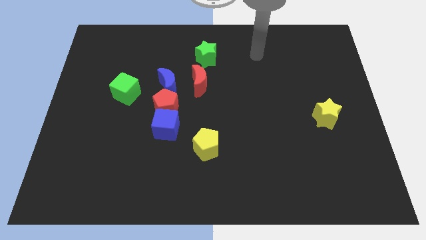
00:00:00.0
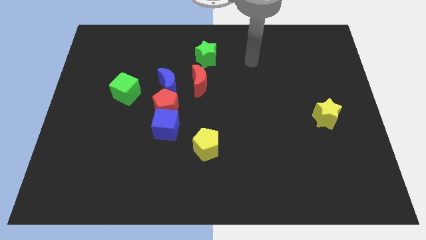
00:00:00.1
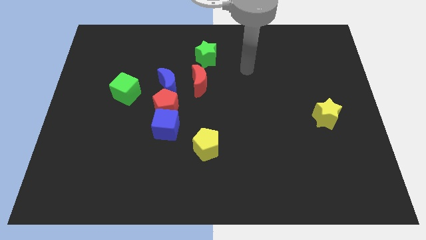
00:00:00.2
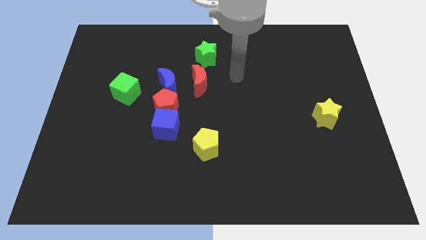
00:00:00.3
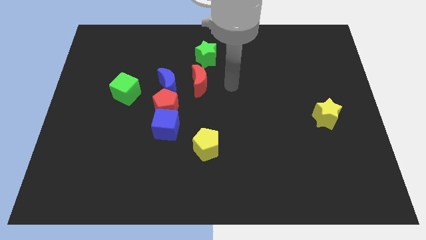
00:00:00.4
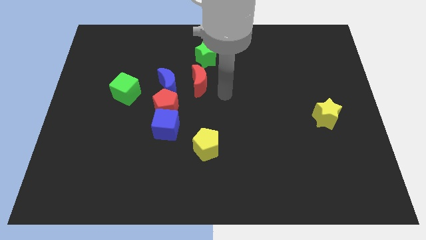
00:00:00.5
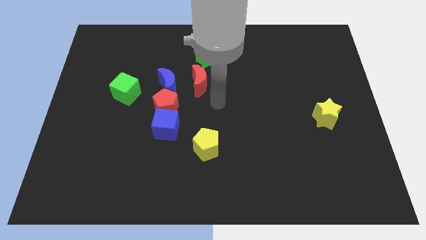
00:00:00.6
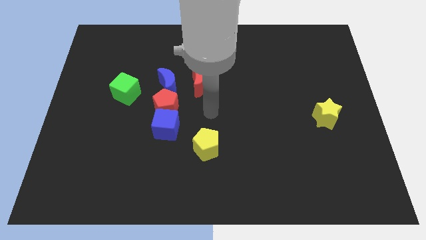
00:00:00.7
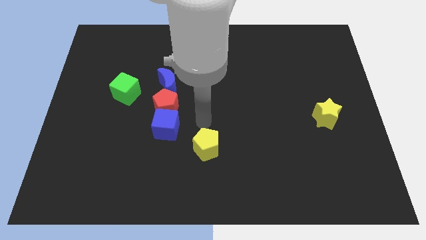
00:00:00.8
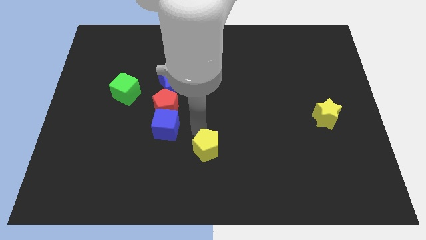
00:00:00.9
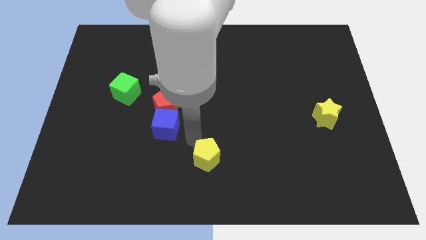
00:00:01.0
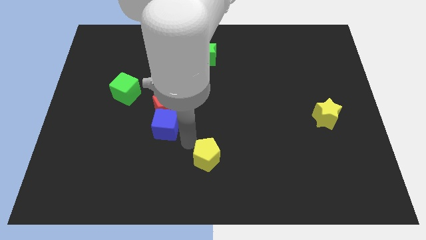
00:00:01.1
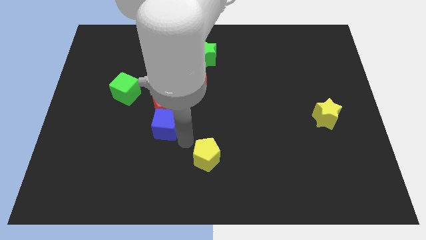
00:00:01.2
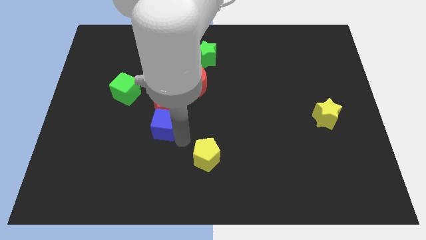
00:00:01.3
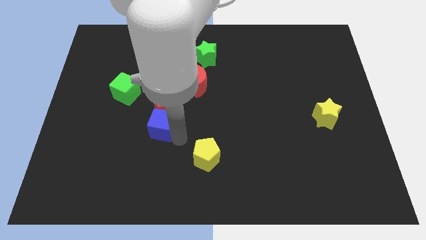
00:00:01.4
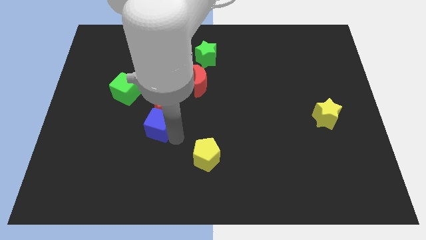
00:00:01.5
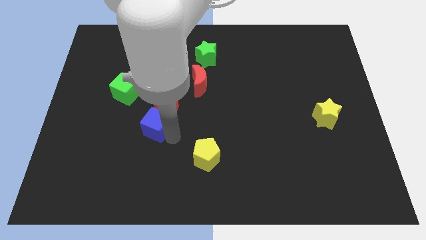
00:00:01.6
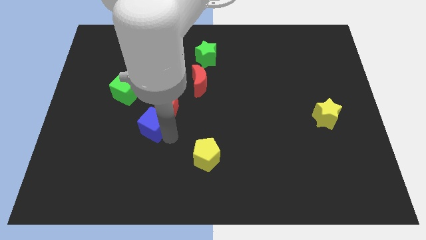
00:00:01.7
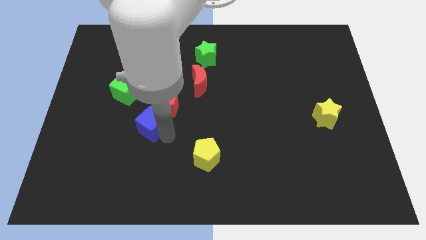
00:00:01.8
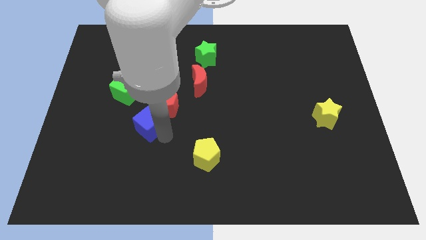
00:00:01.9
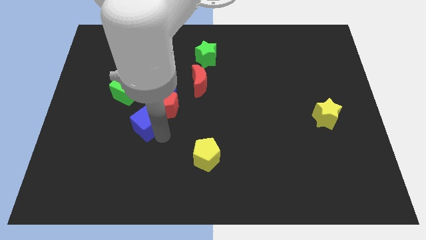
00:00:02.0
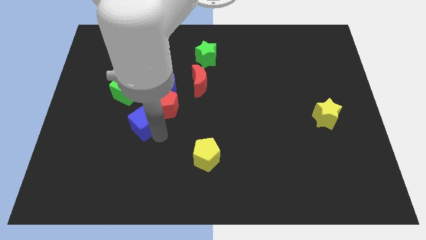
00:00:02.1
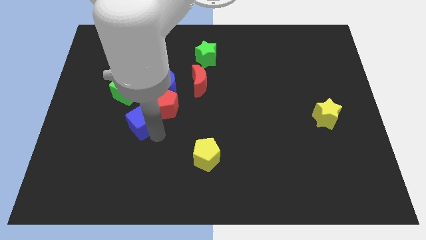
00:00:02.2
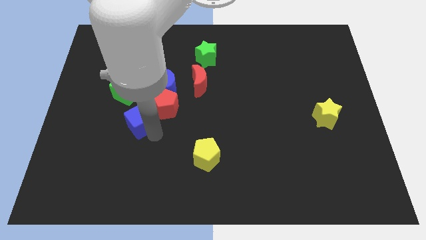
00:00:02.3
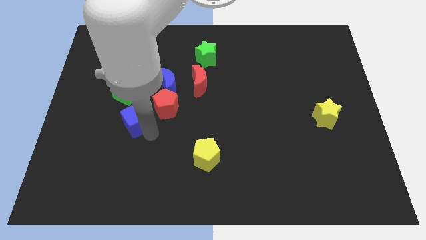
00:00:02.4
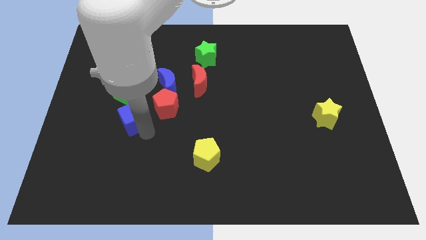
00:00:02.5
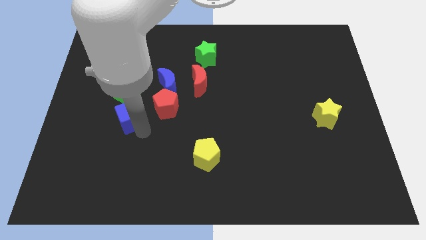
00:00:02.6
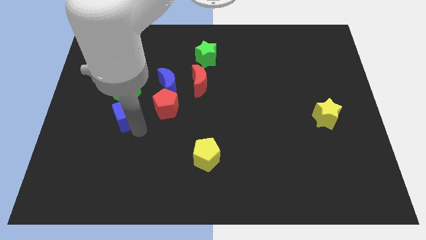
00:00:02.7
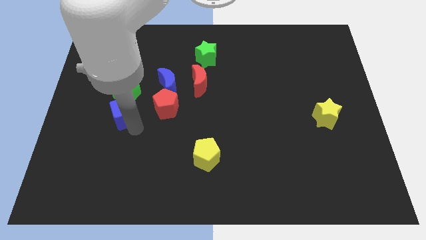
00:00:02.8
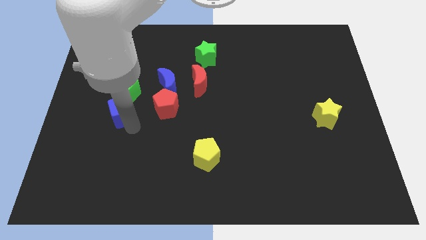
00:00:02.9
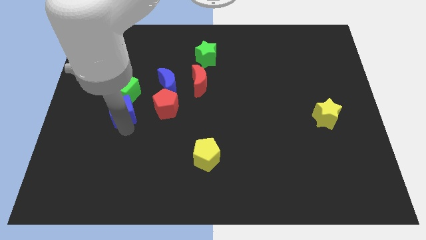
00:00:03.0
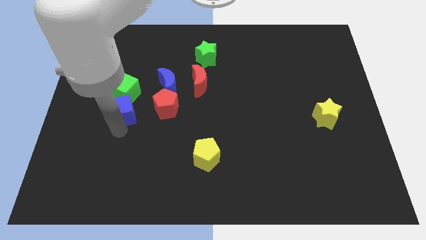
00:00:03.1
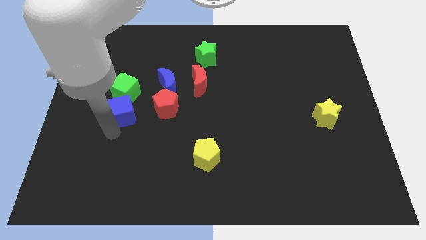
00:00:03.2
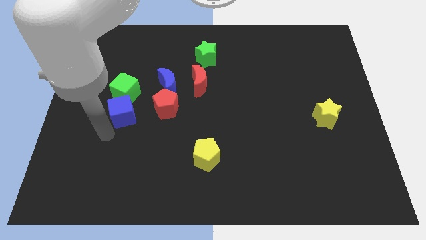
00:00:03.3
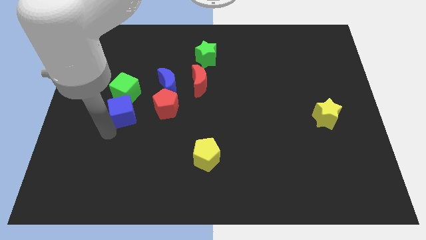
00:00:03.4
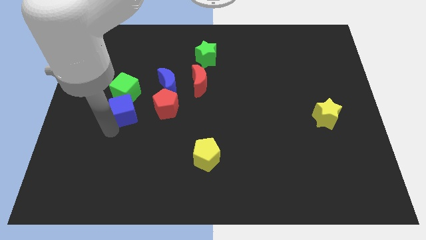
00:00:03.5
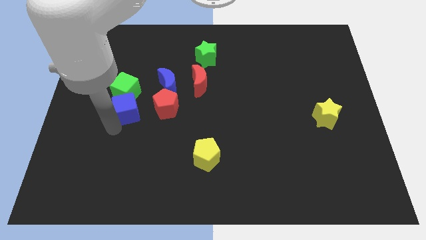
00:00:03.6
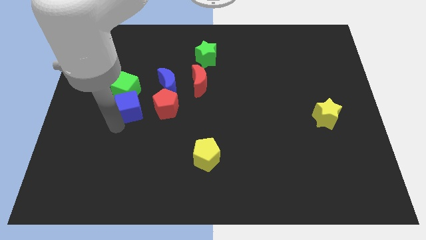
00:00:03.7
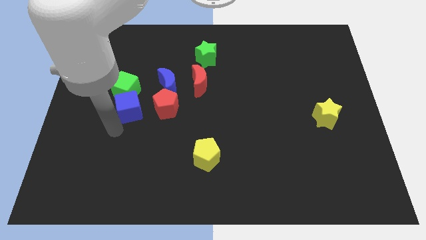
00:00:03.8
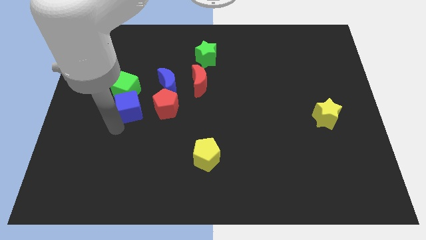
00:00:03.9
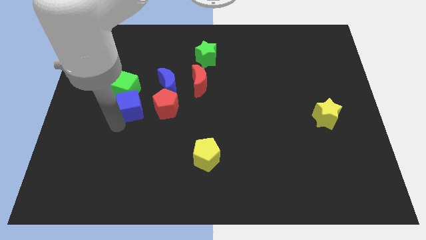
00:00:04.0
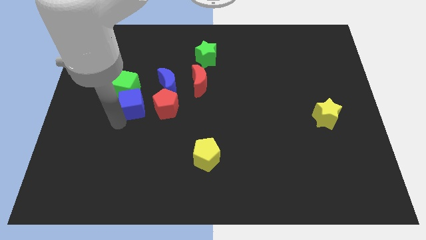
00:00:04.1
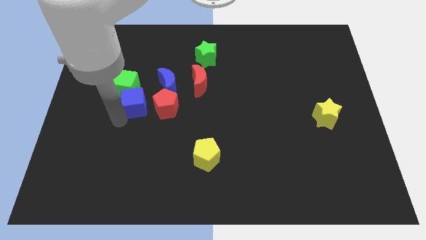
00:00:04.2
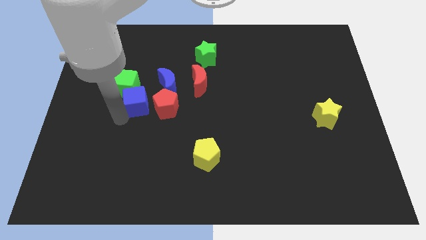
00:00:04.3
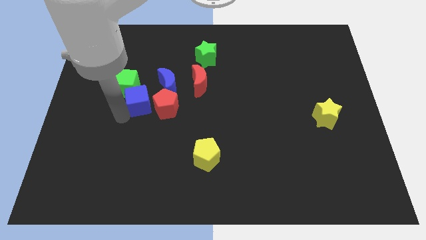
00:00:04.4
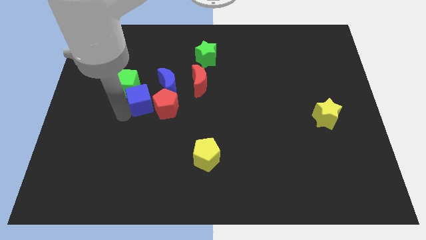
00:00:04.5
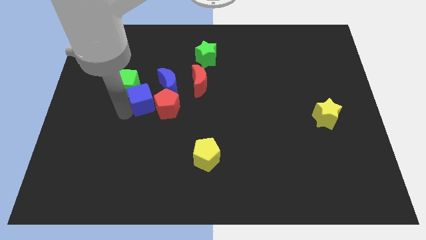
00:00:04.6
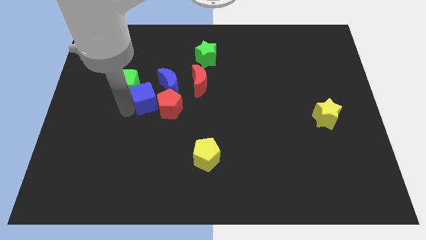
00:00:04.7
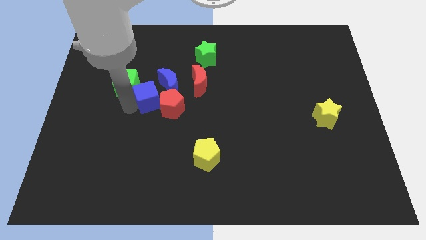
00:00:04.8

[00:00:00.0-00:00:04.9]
slide the blue cube a little bit up

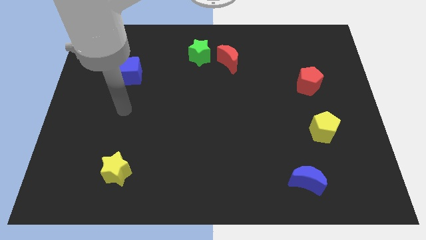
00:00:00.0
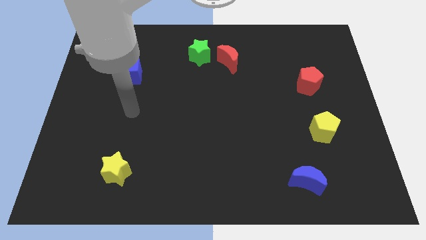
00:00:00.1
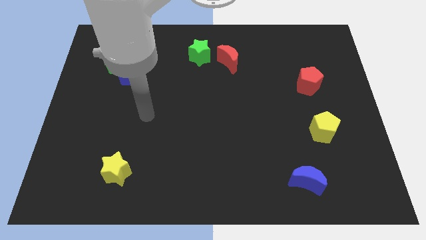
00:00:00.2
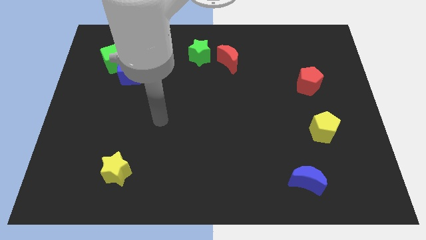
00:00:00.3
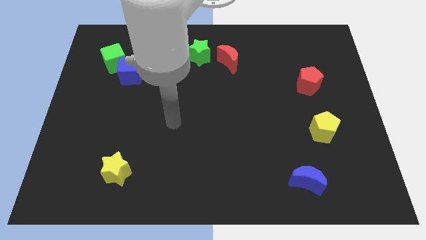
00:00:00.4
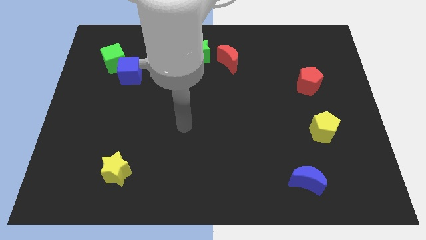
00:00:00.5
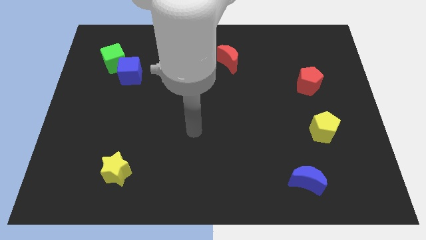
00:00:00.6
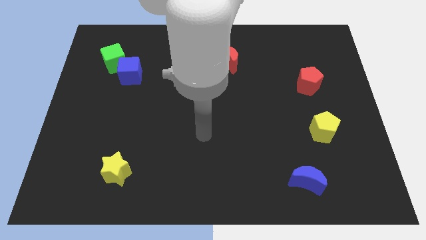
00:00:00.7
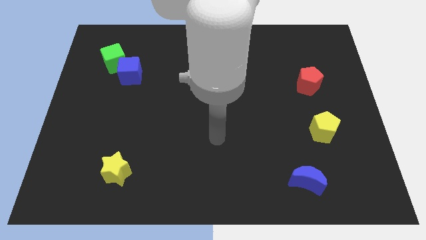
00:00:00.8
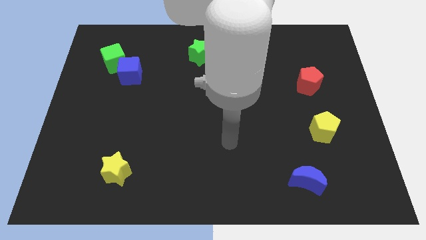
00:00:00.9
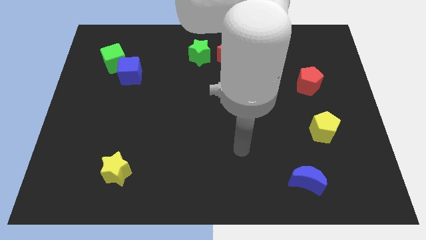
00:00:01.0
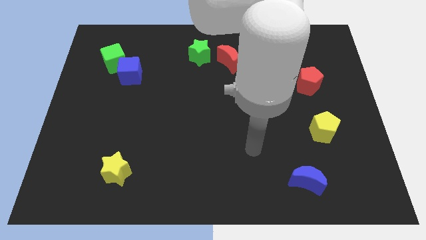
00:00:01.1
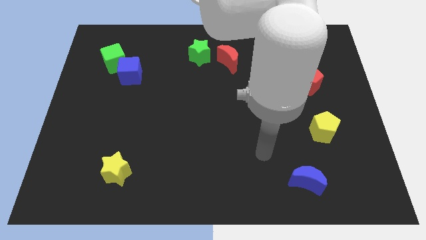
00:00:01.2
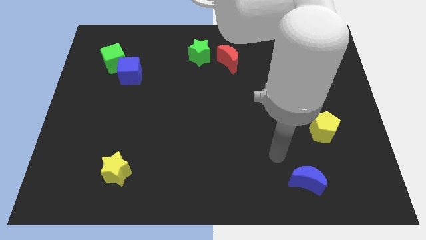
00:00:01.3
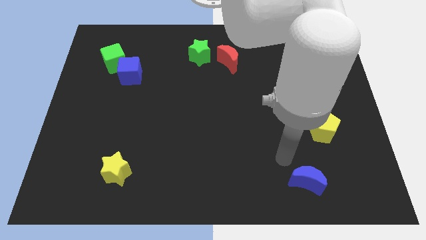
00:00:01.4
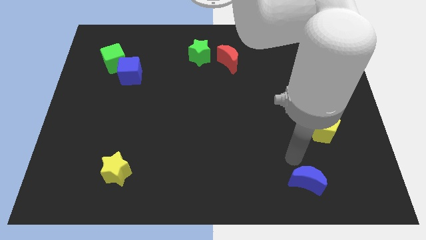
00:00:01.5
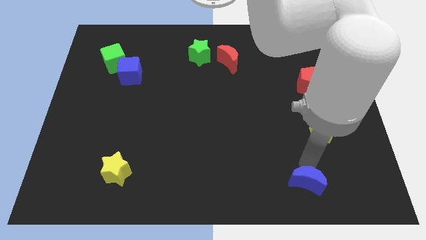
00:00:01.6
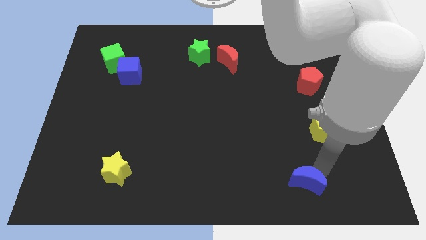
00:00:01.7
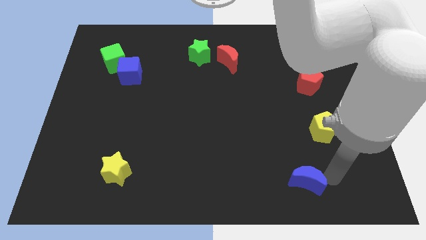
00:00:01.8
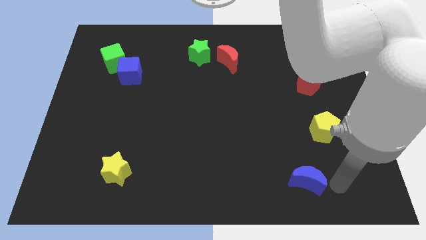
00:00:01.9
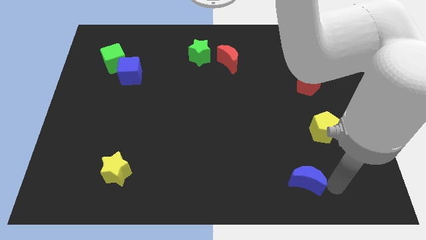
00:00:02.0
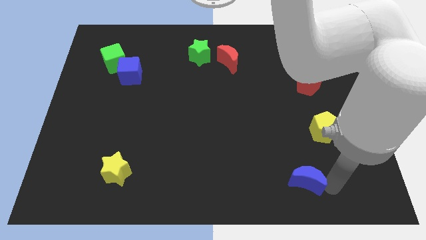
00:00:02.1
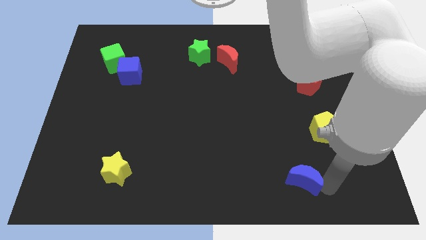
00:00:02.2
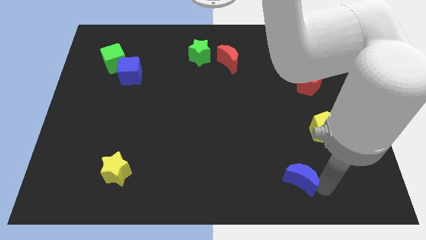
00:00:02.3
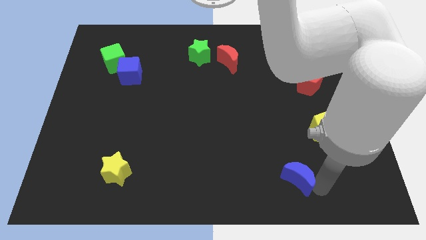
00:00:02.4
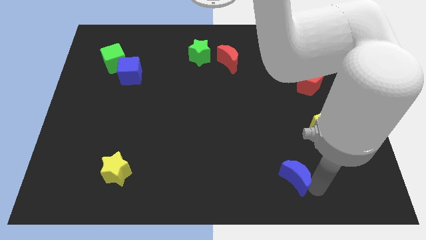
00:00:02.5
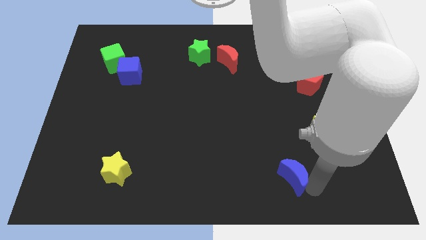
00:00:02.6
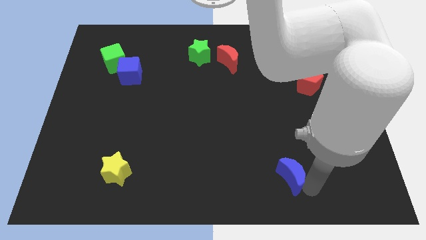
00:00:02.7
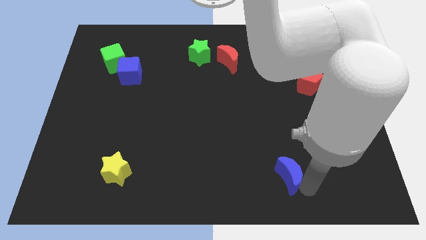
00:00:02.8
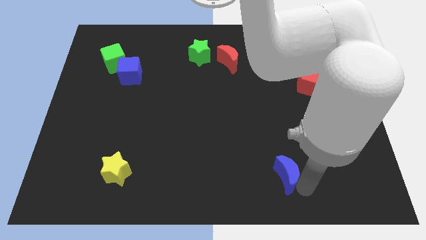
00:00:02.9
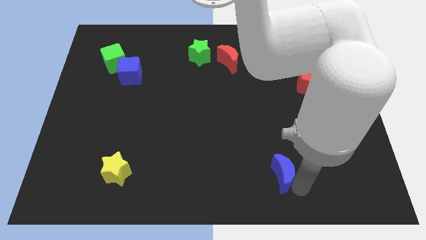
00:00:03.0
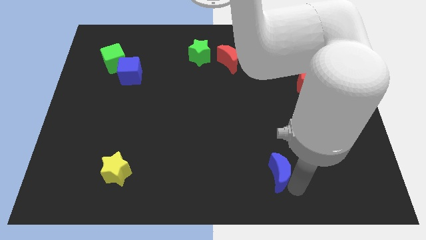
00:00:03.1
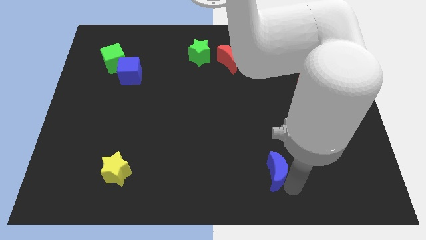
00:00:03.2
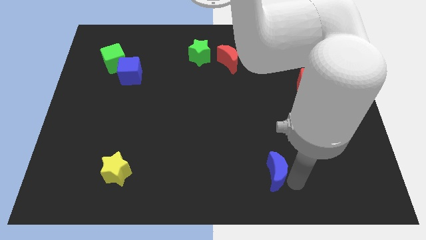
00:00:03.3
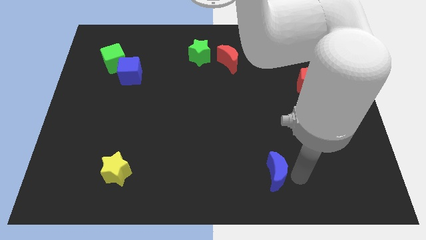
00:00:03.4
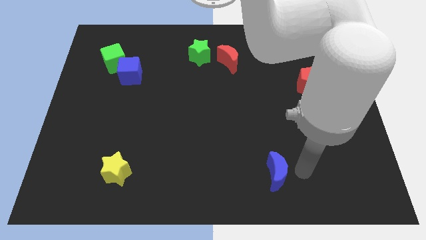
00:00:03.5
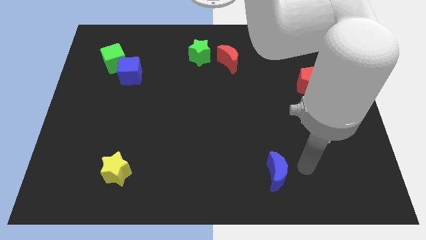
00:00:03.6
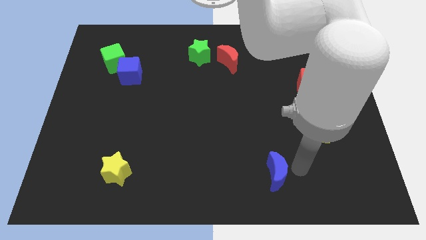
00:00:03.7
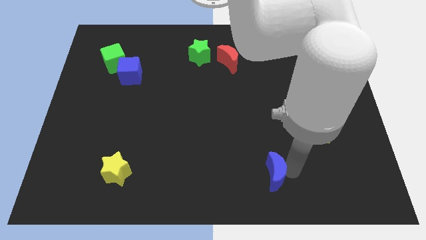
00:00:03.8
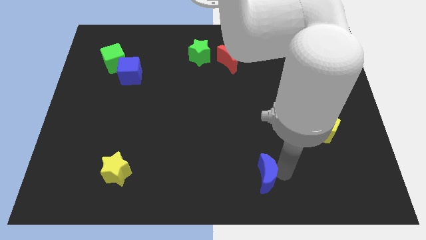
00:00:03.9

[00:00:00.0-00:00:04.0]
slide the blue moon a little bit left
